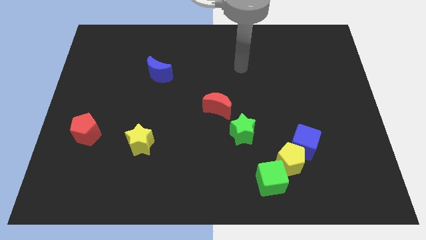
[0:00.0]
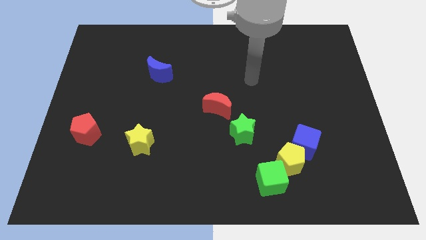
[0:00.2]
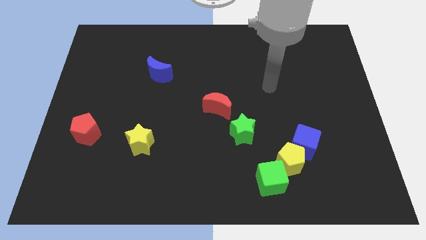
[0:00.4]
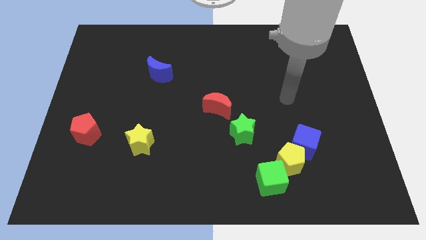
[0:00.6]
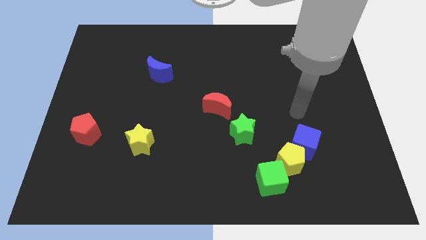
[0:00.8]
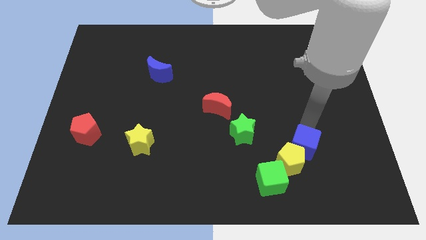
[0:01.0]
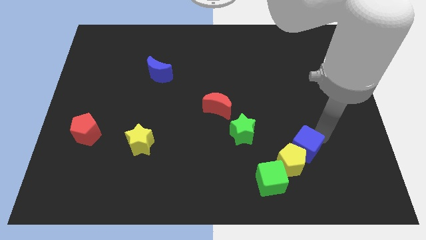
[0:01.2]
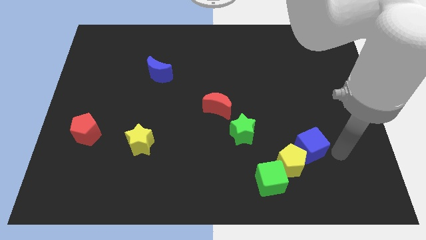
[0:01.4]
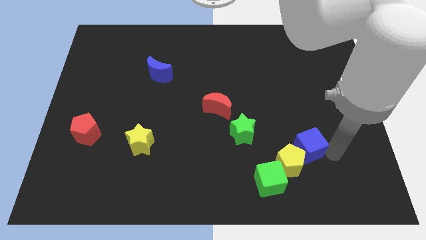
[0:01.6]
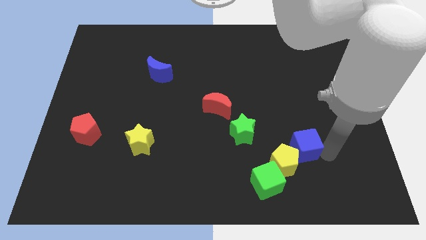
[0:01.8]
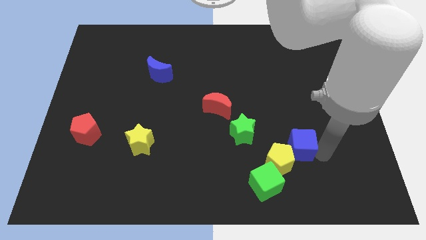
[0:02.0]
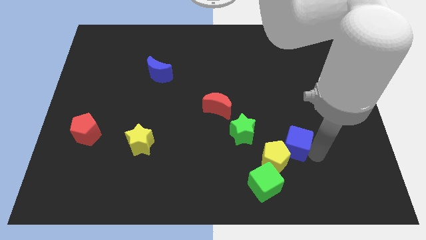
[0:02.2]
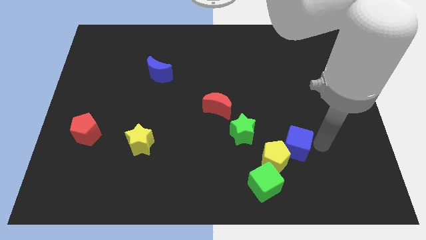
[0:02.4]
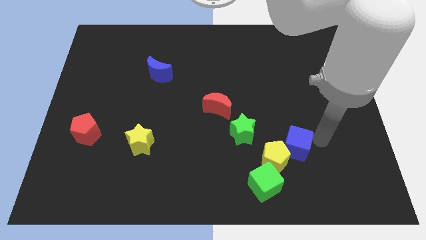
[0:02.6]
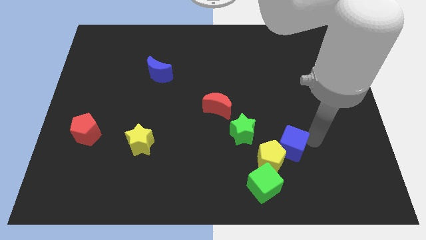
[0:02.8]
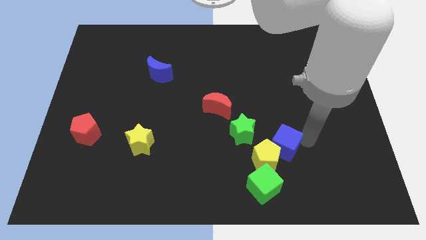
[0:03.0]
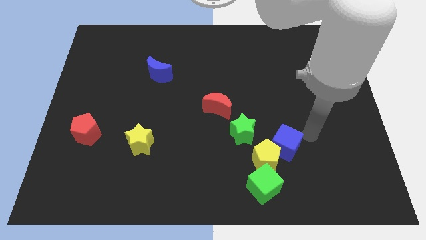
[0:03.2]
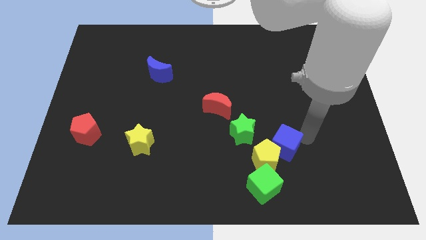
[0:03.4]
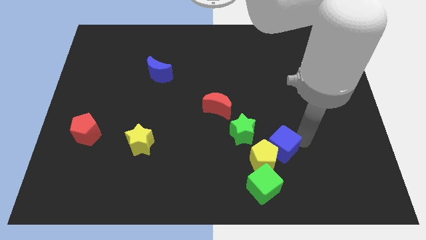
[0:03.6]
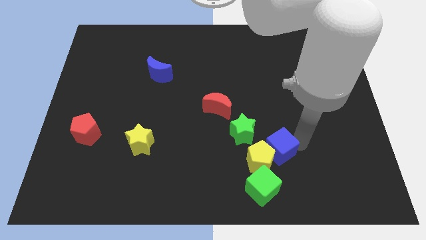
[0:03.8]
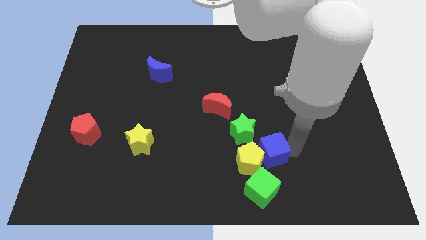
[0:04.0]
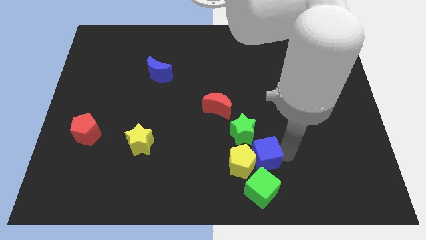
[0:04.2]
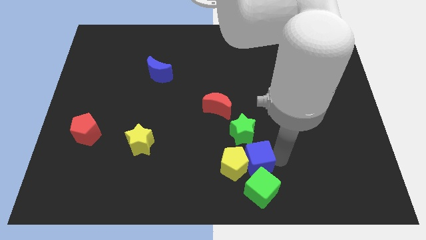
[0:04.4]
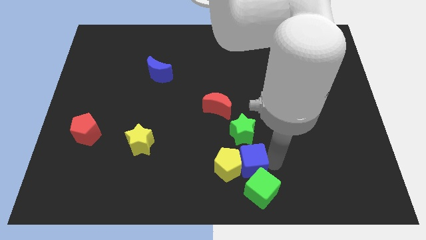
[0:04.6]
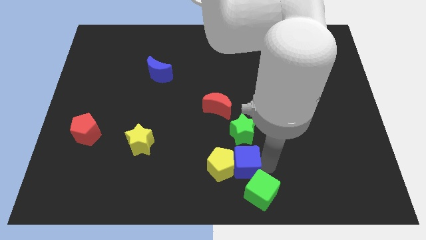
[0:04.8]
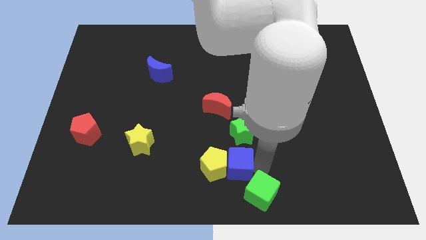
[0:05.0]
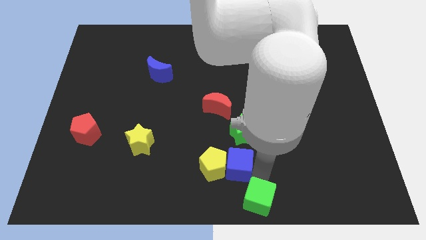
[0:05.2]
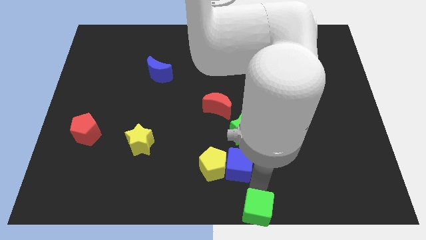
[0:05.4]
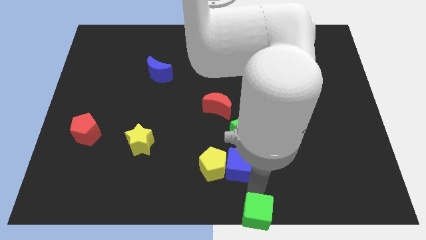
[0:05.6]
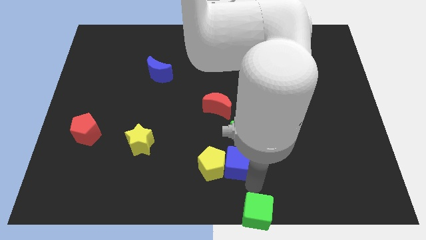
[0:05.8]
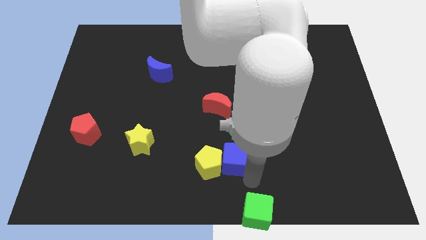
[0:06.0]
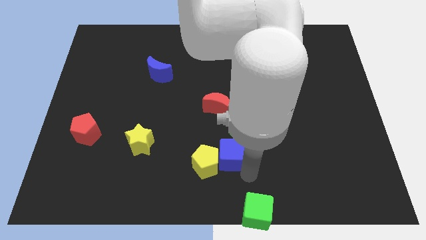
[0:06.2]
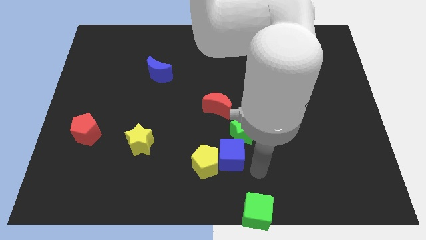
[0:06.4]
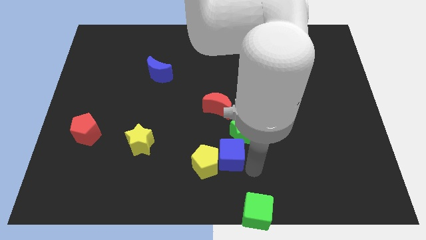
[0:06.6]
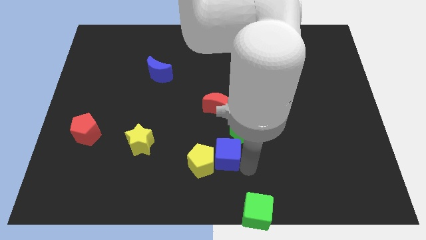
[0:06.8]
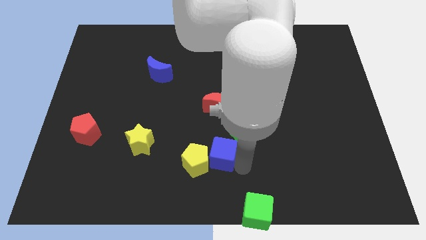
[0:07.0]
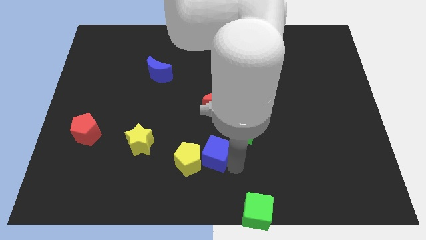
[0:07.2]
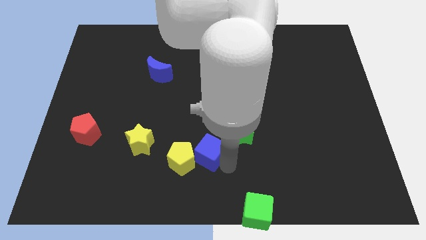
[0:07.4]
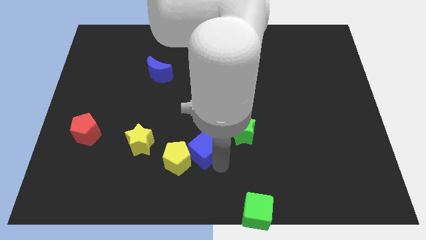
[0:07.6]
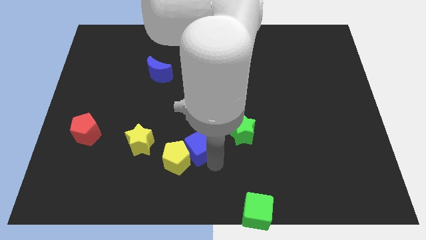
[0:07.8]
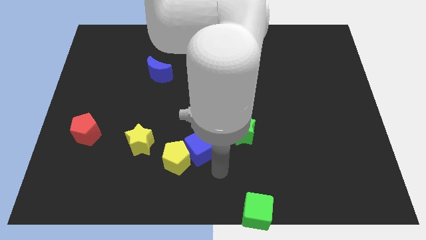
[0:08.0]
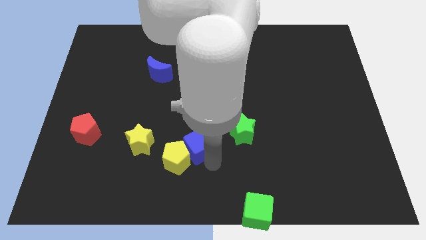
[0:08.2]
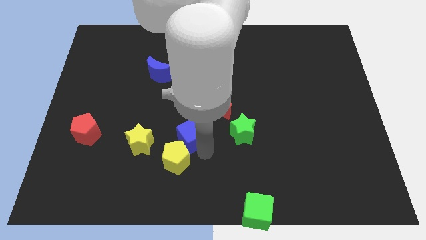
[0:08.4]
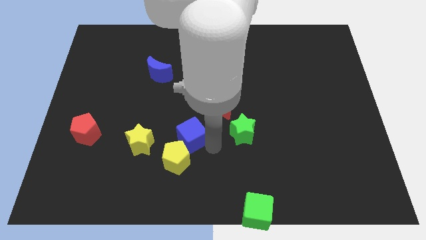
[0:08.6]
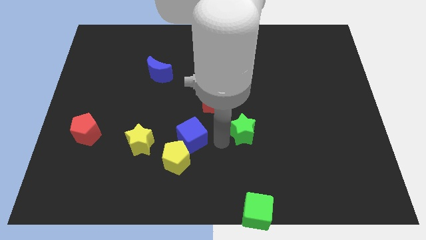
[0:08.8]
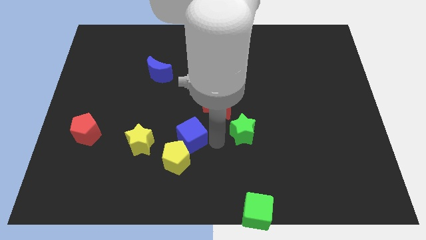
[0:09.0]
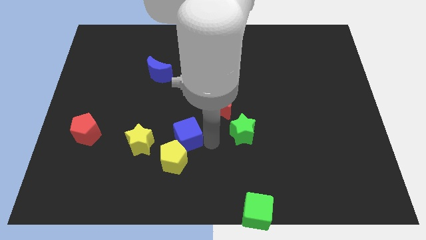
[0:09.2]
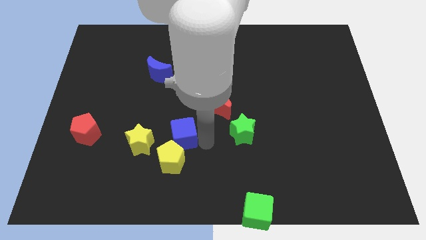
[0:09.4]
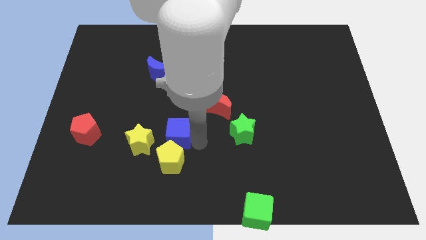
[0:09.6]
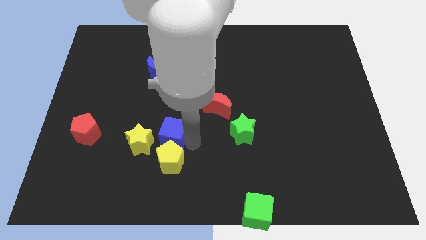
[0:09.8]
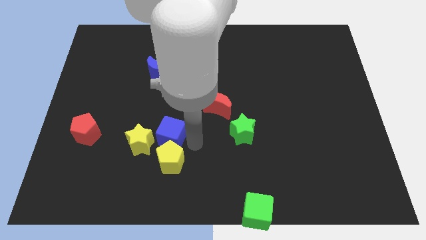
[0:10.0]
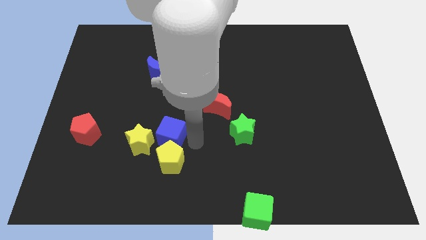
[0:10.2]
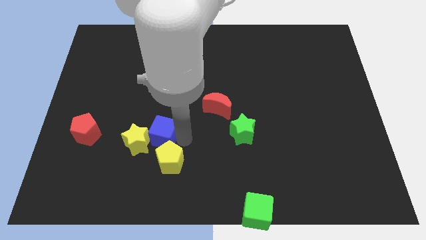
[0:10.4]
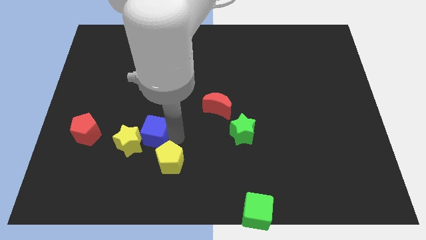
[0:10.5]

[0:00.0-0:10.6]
move the blue cube just right of the red pentagon
